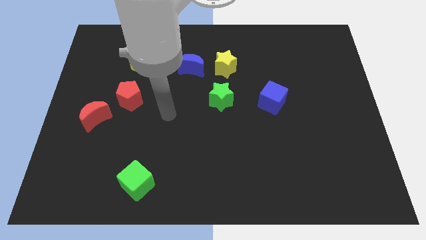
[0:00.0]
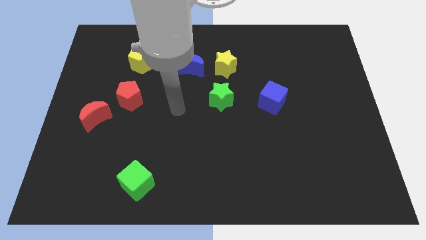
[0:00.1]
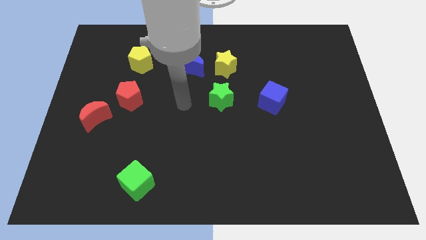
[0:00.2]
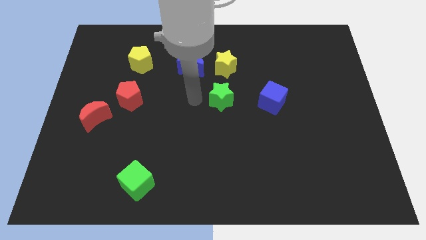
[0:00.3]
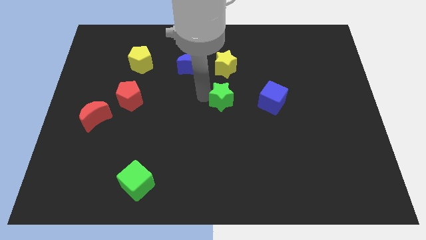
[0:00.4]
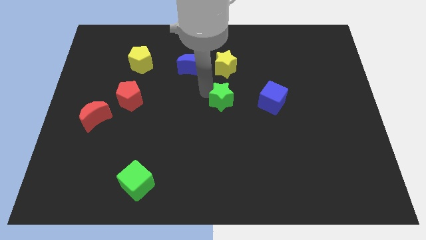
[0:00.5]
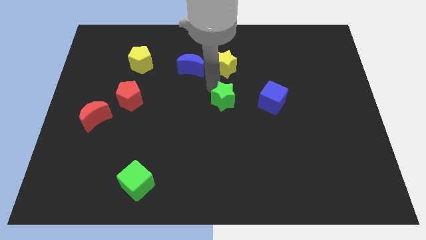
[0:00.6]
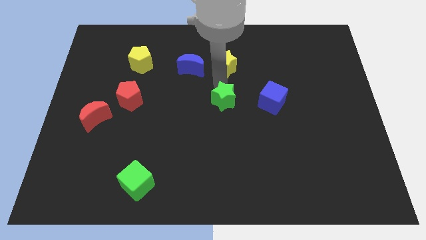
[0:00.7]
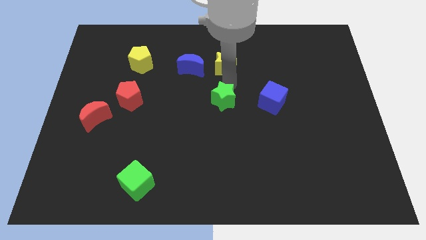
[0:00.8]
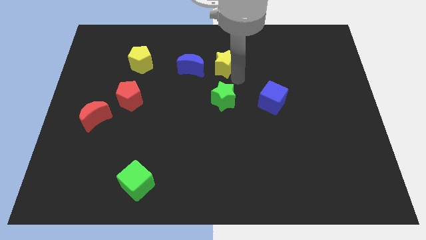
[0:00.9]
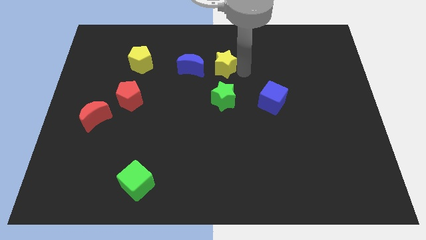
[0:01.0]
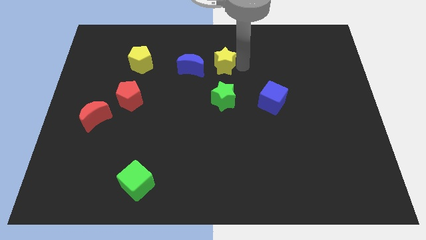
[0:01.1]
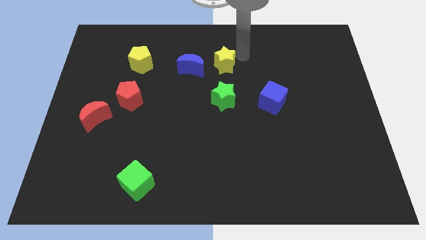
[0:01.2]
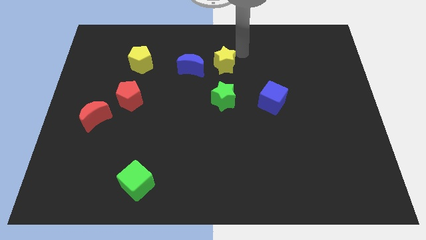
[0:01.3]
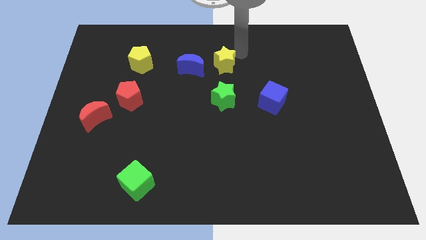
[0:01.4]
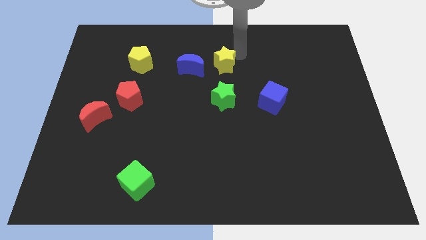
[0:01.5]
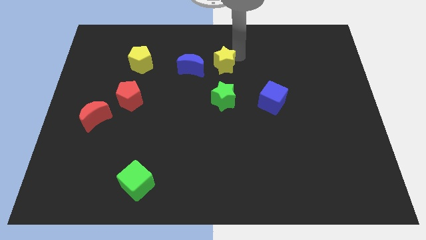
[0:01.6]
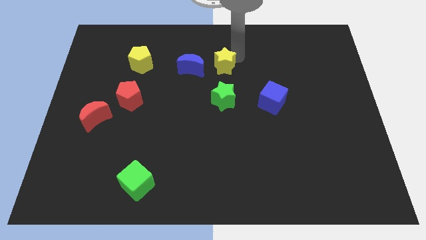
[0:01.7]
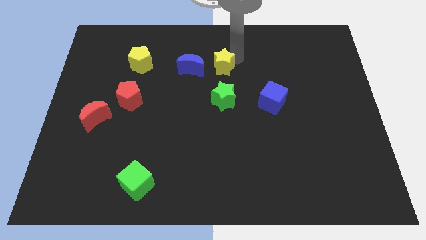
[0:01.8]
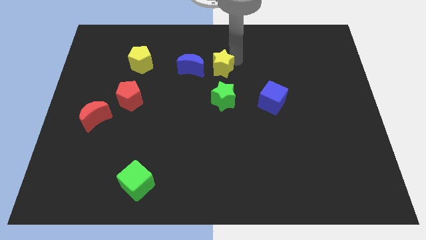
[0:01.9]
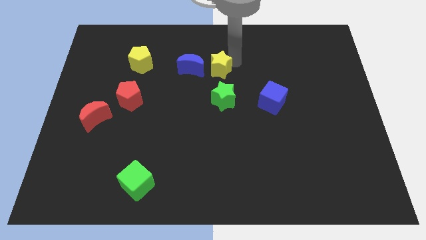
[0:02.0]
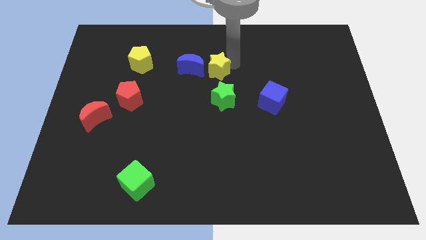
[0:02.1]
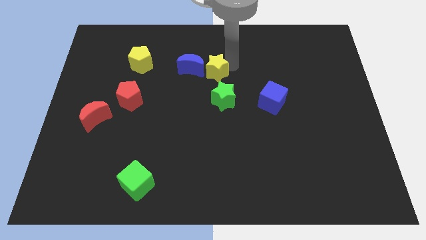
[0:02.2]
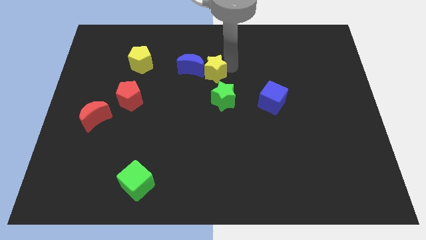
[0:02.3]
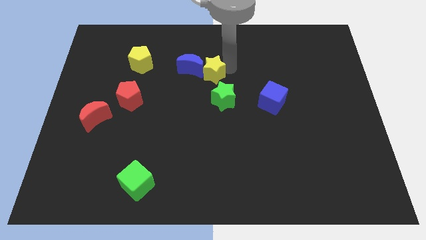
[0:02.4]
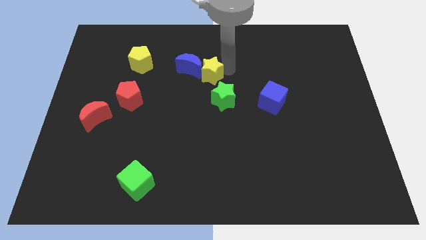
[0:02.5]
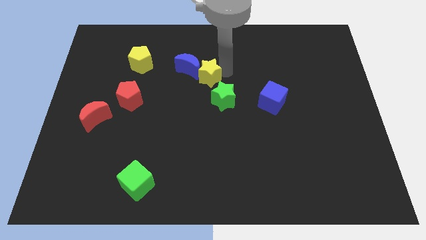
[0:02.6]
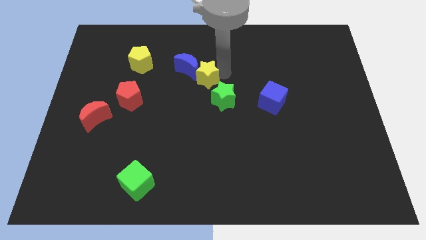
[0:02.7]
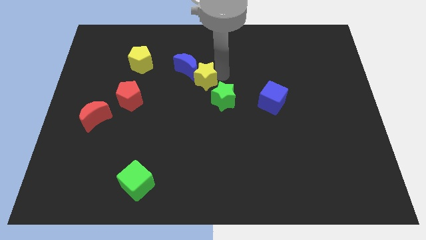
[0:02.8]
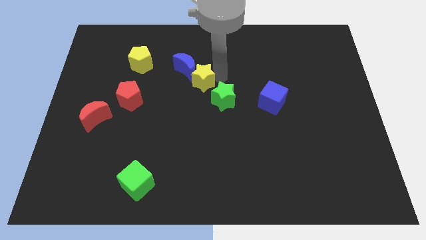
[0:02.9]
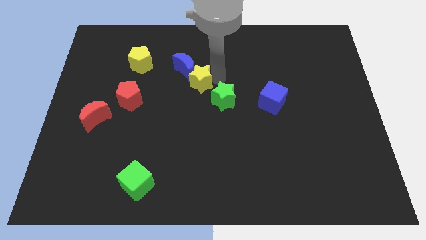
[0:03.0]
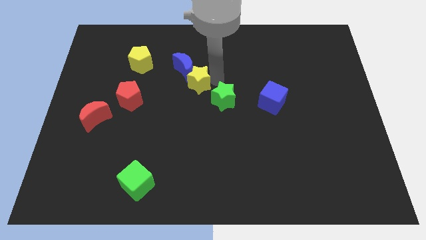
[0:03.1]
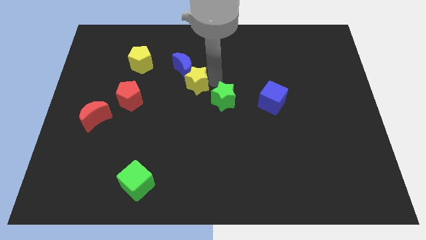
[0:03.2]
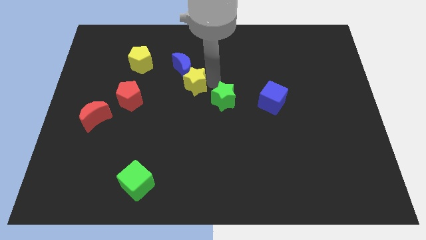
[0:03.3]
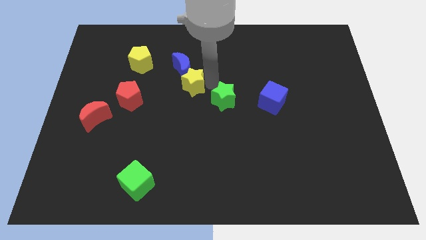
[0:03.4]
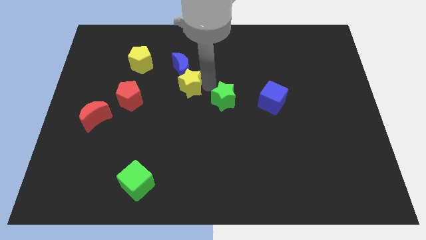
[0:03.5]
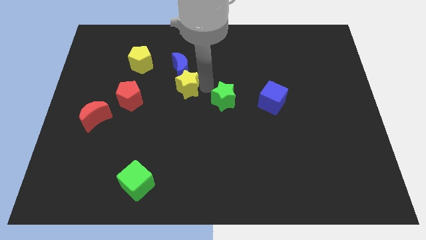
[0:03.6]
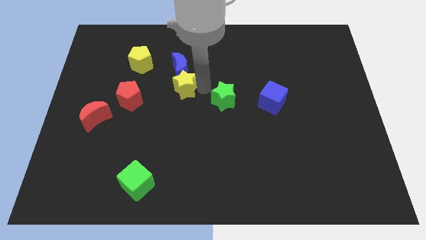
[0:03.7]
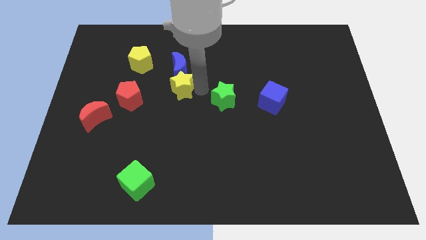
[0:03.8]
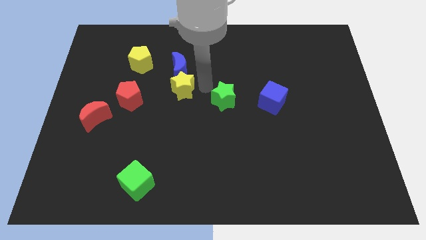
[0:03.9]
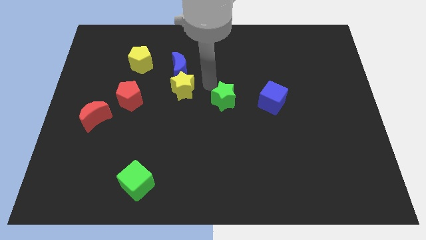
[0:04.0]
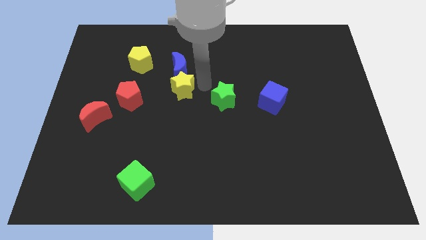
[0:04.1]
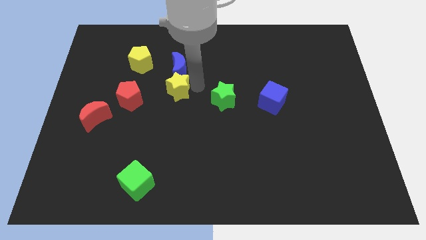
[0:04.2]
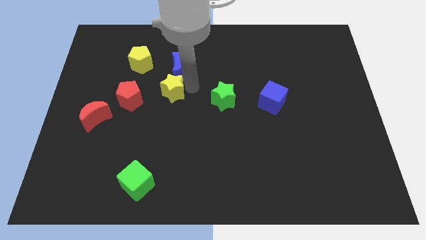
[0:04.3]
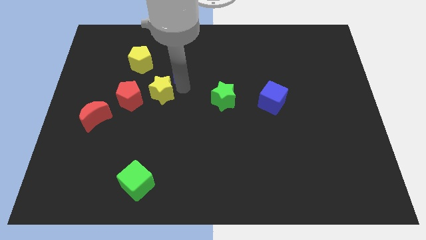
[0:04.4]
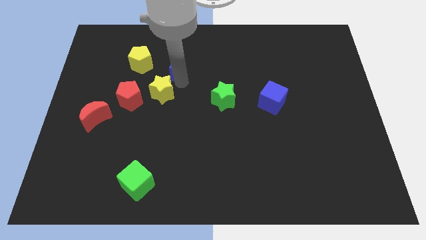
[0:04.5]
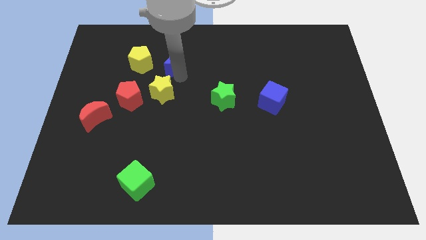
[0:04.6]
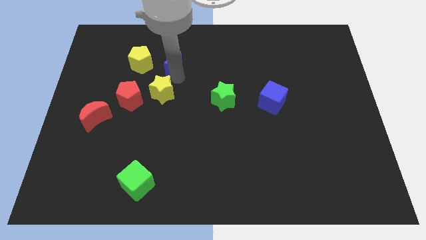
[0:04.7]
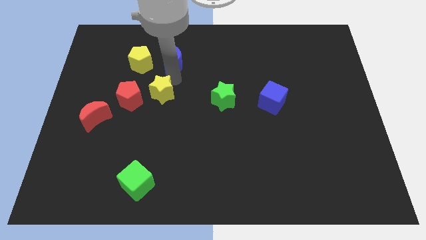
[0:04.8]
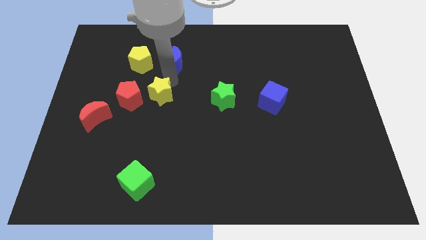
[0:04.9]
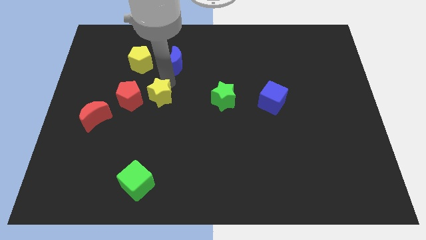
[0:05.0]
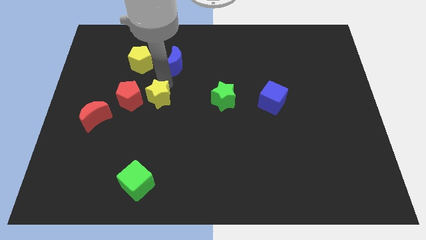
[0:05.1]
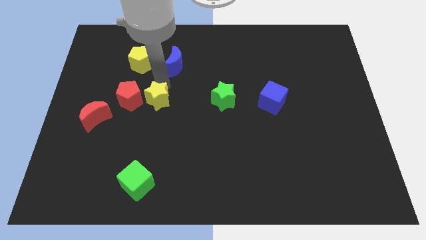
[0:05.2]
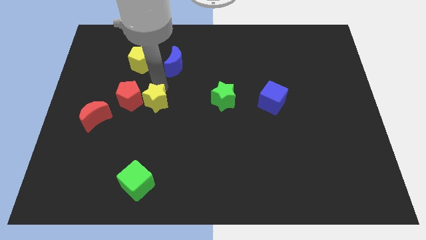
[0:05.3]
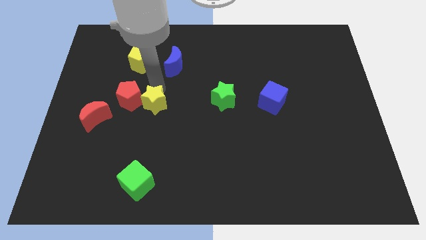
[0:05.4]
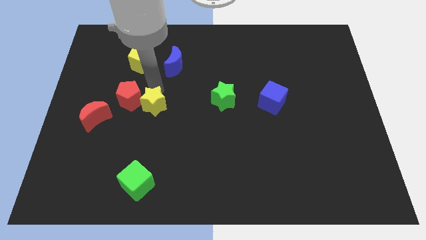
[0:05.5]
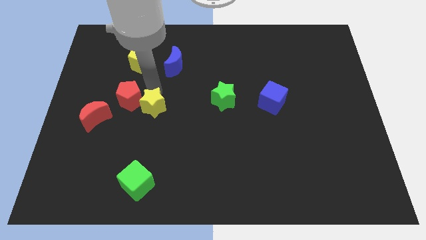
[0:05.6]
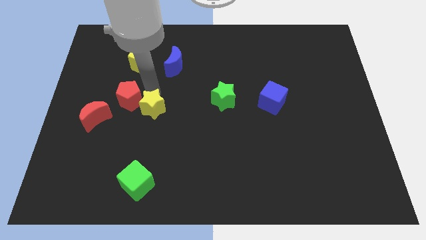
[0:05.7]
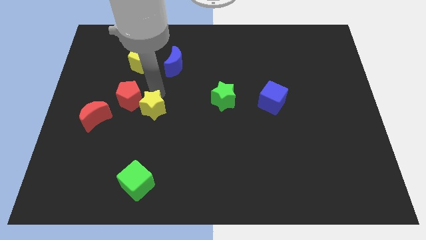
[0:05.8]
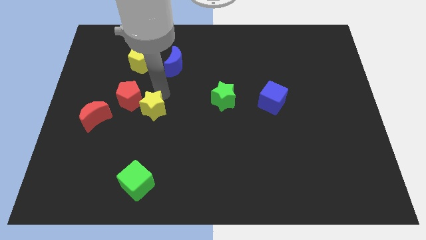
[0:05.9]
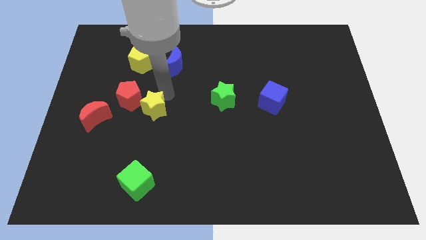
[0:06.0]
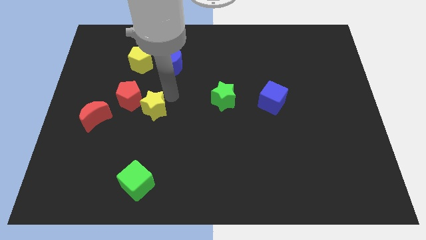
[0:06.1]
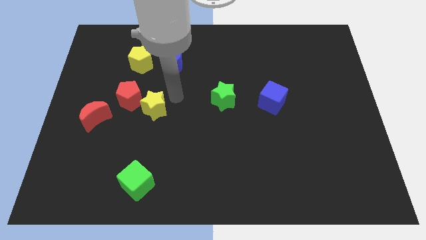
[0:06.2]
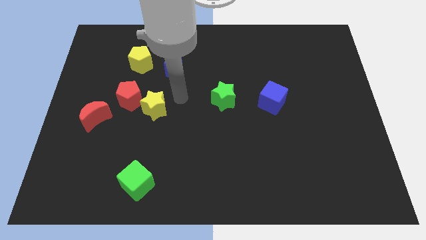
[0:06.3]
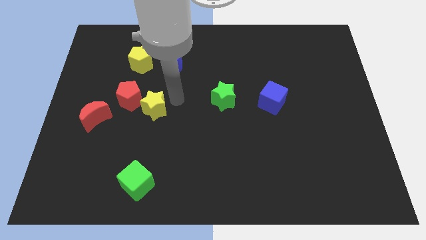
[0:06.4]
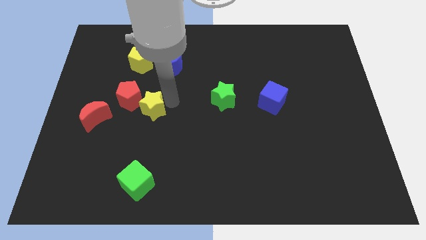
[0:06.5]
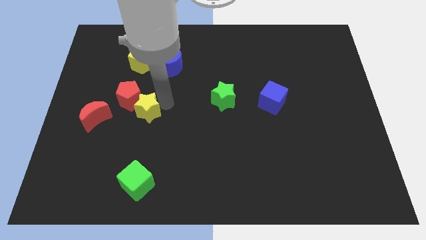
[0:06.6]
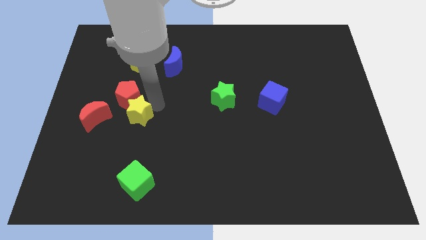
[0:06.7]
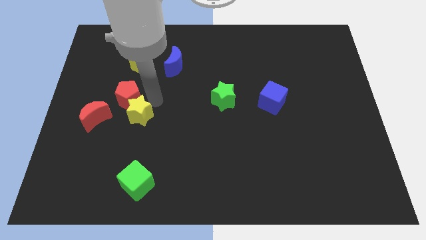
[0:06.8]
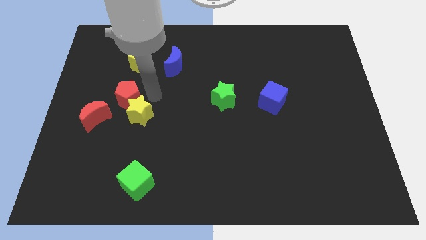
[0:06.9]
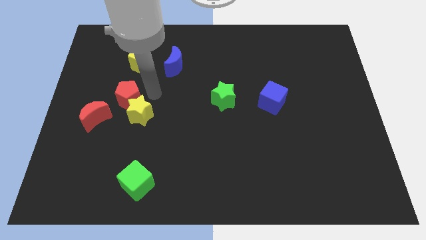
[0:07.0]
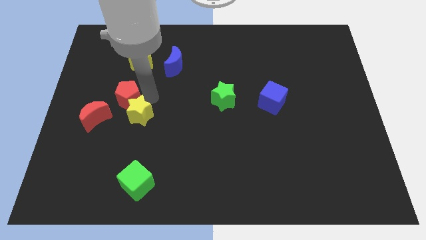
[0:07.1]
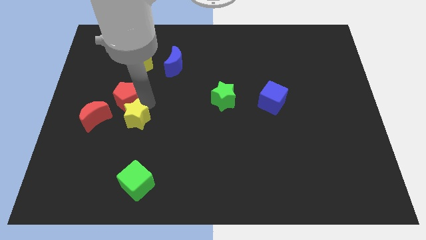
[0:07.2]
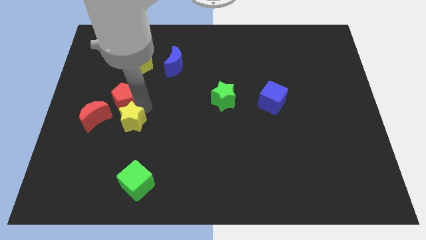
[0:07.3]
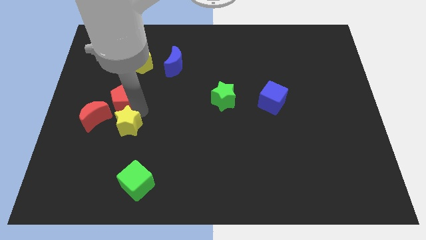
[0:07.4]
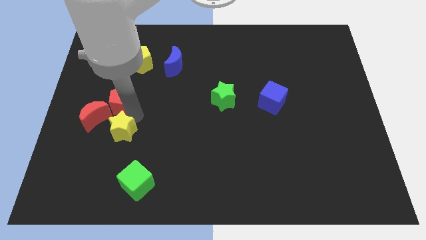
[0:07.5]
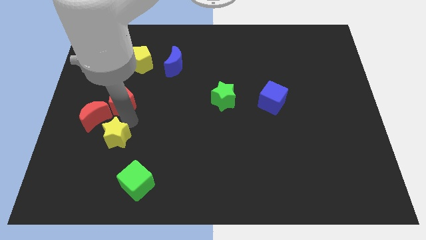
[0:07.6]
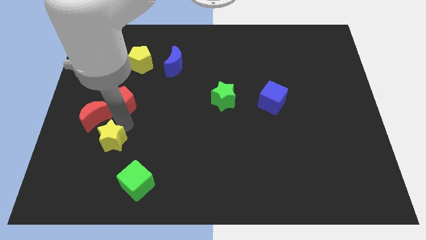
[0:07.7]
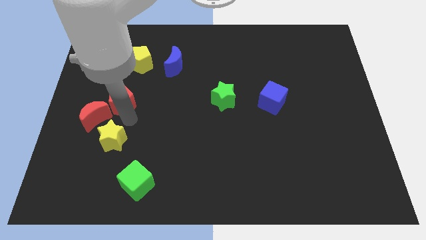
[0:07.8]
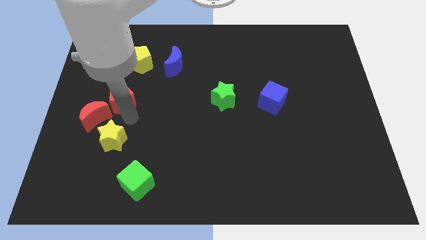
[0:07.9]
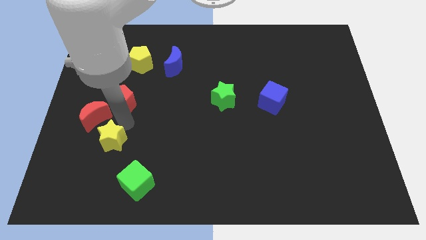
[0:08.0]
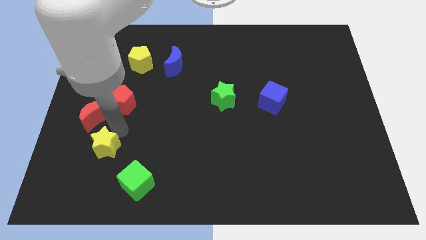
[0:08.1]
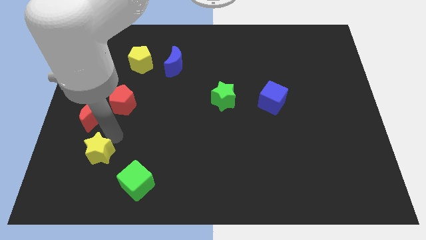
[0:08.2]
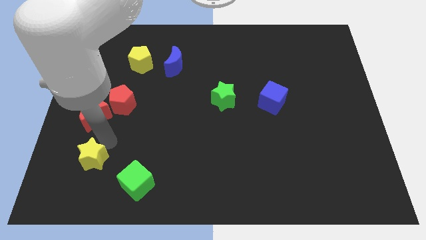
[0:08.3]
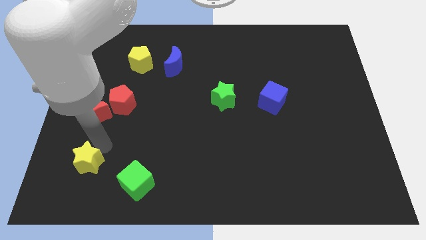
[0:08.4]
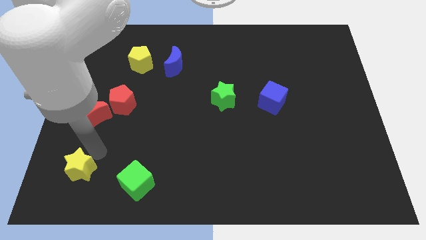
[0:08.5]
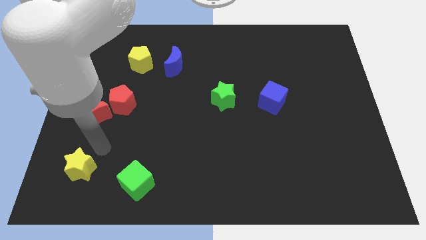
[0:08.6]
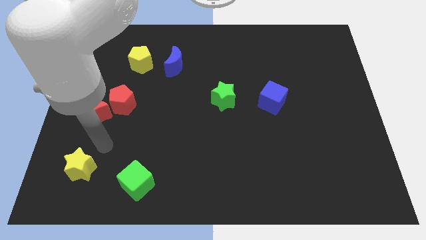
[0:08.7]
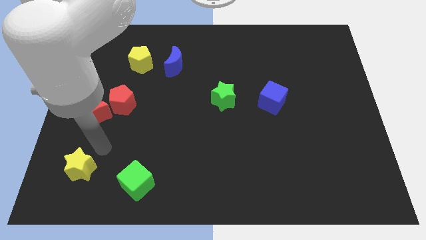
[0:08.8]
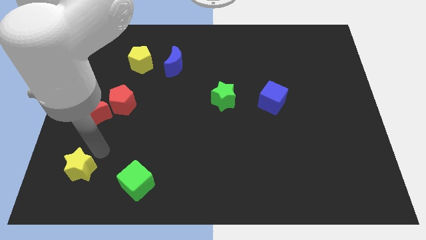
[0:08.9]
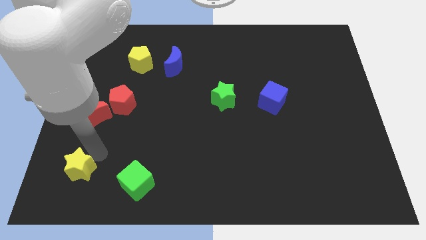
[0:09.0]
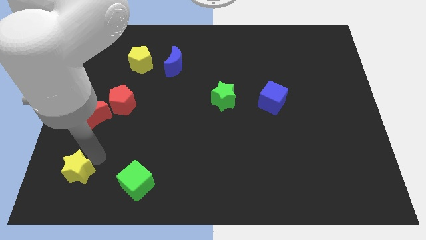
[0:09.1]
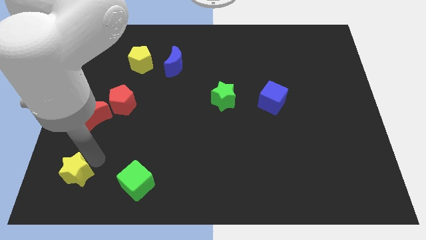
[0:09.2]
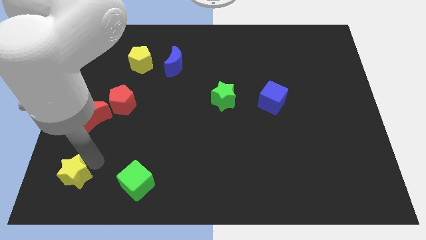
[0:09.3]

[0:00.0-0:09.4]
slide the yellow star to the lower left corner
